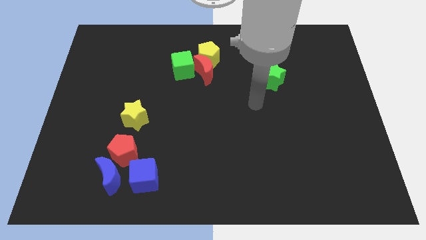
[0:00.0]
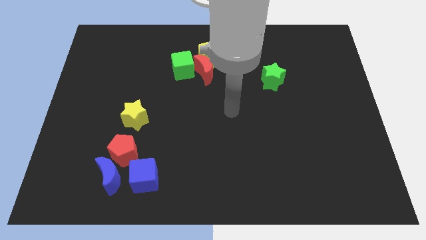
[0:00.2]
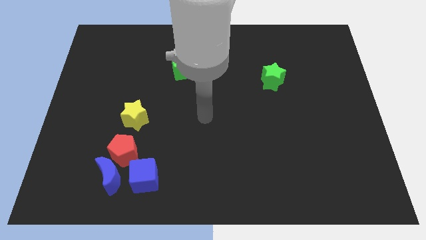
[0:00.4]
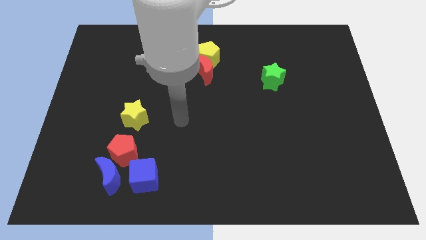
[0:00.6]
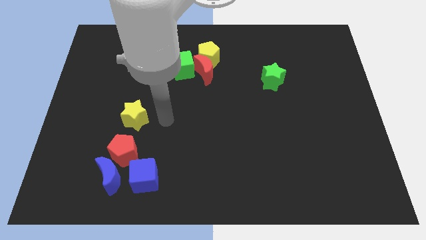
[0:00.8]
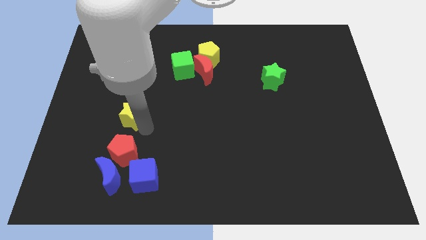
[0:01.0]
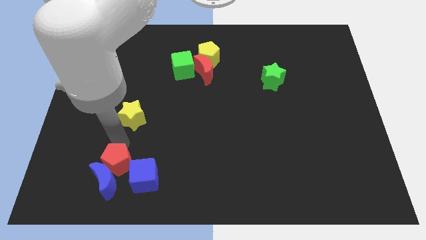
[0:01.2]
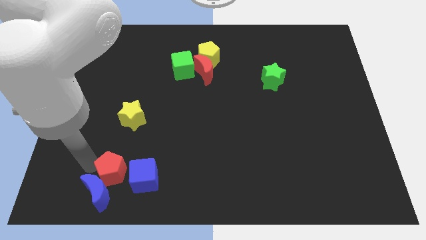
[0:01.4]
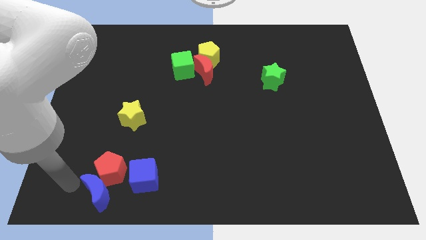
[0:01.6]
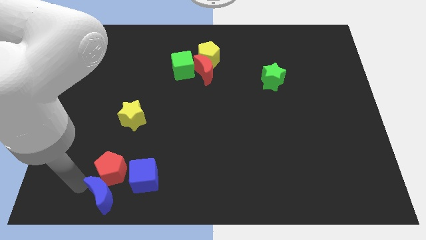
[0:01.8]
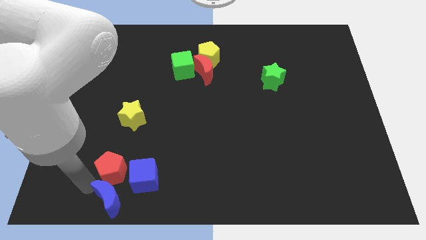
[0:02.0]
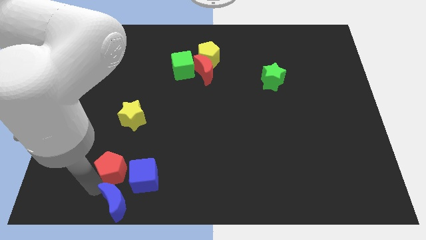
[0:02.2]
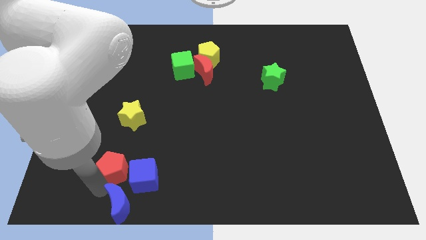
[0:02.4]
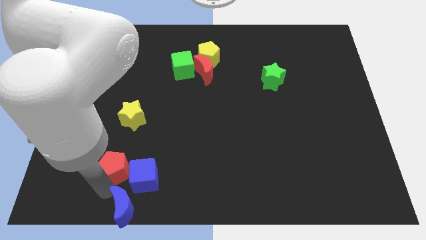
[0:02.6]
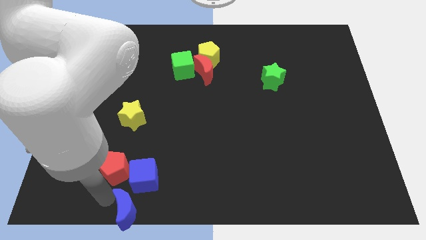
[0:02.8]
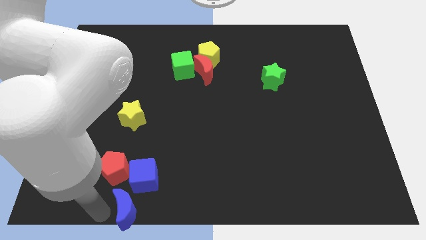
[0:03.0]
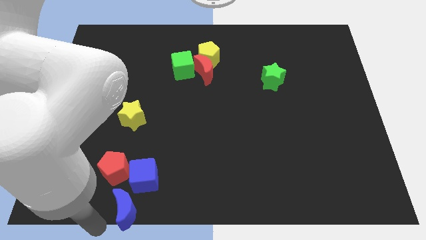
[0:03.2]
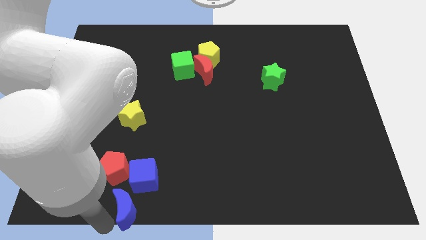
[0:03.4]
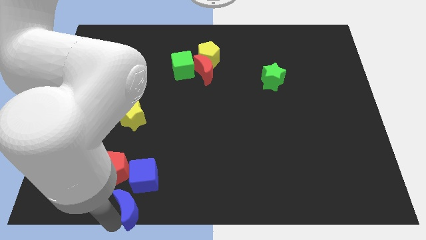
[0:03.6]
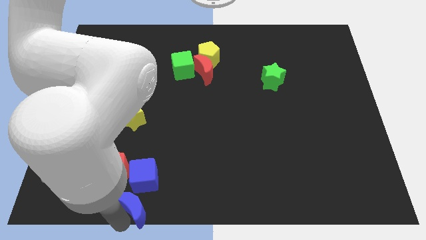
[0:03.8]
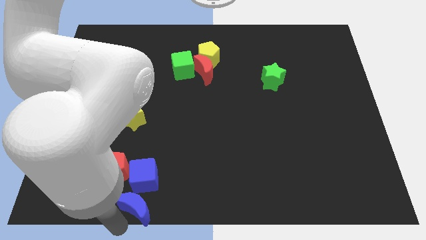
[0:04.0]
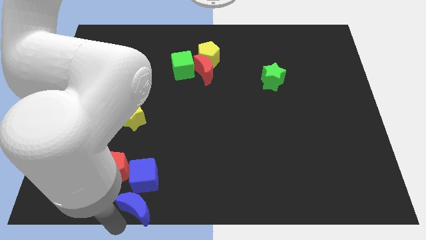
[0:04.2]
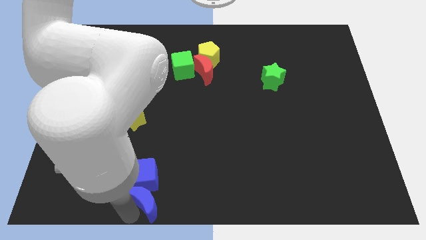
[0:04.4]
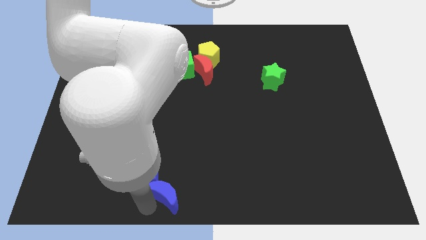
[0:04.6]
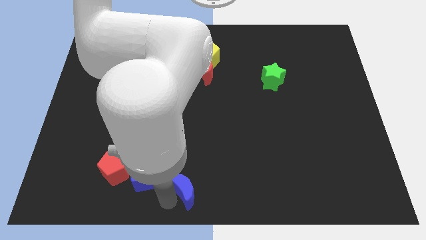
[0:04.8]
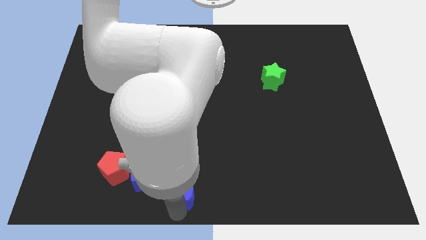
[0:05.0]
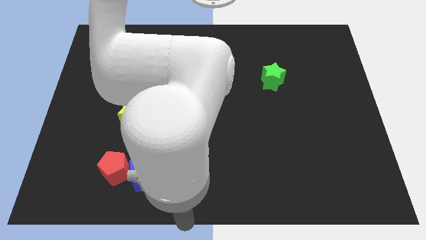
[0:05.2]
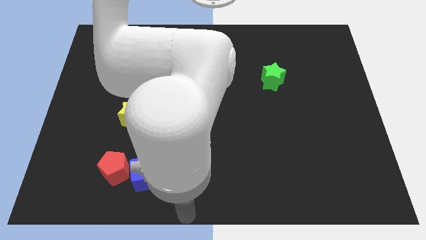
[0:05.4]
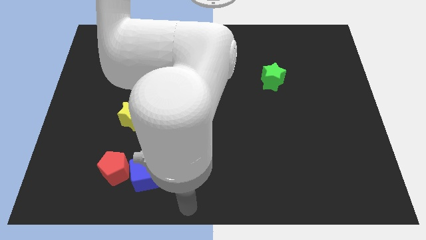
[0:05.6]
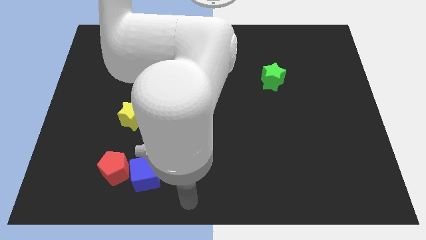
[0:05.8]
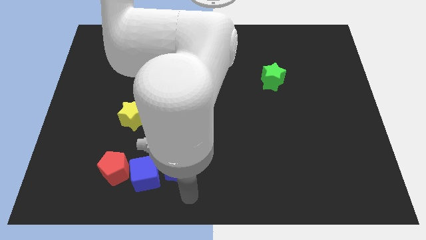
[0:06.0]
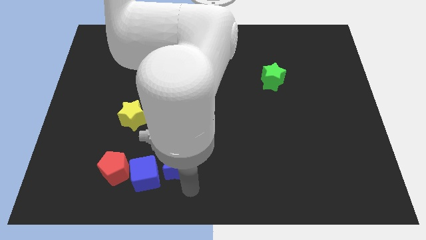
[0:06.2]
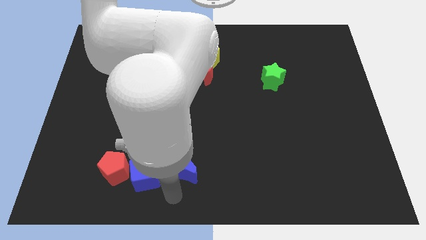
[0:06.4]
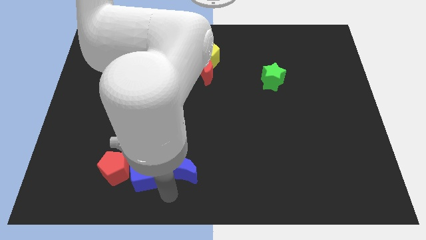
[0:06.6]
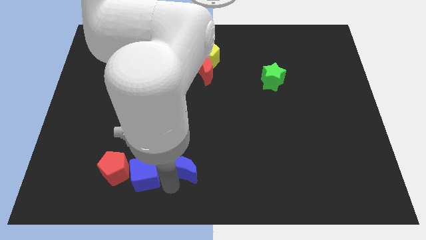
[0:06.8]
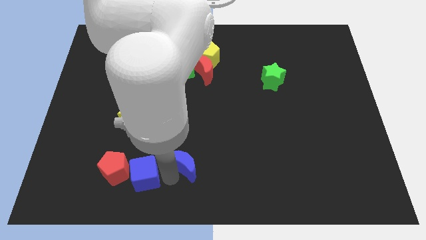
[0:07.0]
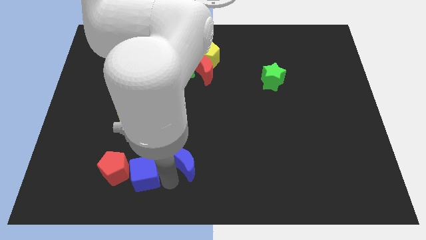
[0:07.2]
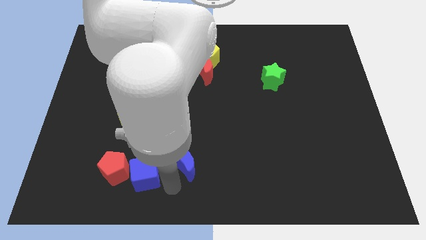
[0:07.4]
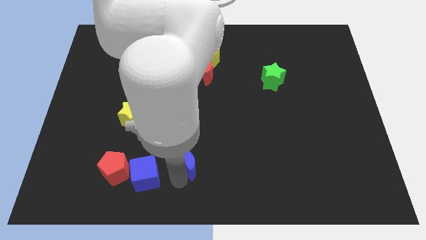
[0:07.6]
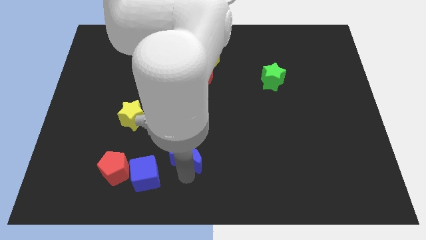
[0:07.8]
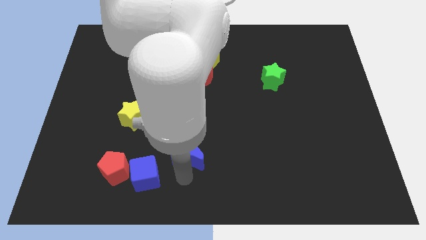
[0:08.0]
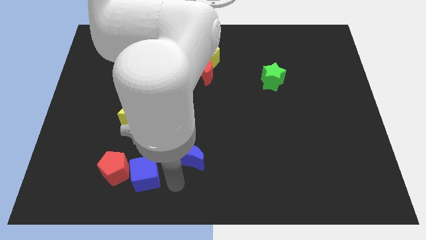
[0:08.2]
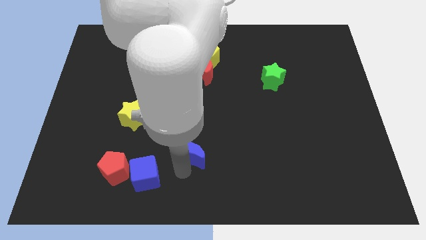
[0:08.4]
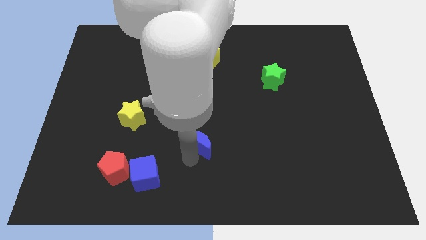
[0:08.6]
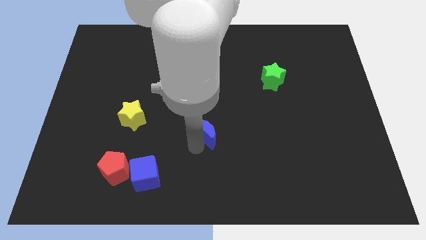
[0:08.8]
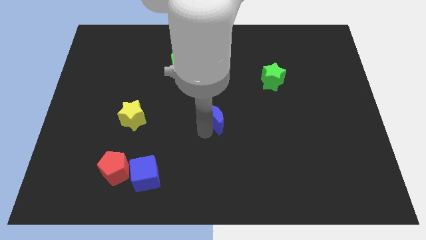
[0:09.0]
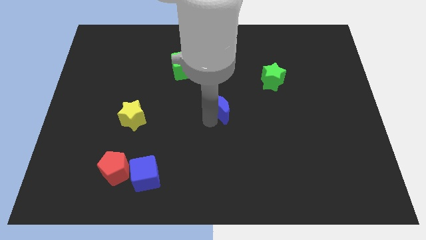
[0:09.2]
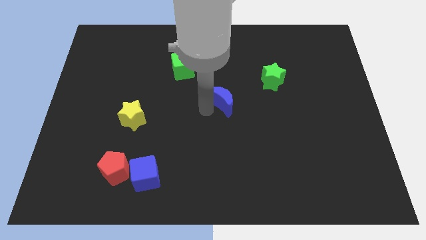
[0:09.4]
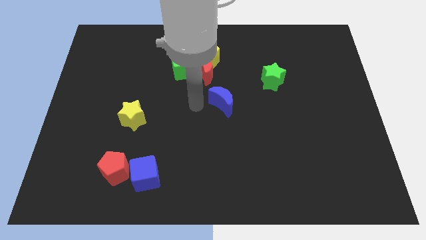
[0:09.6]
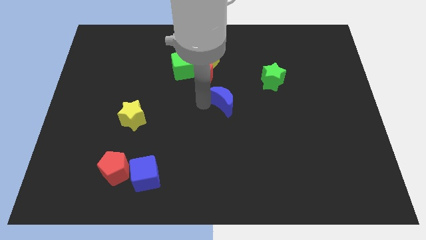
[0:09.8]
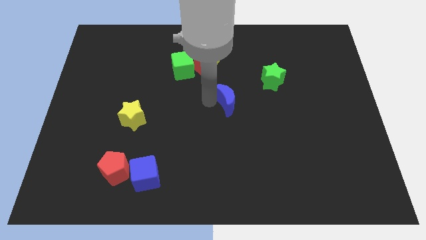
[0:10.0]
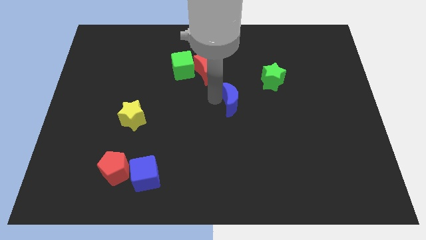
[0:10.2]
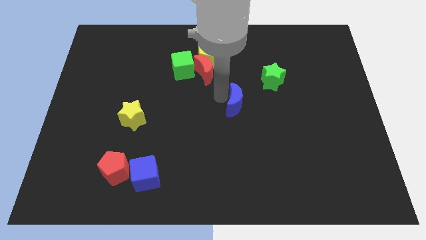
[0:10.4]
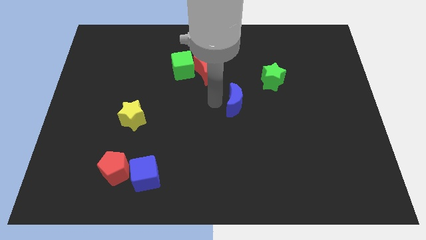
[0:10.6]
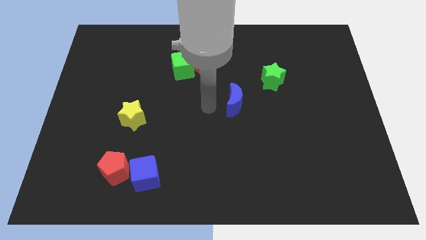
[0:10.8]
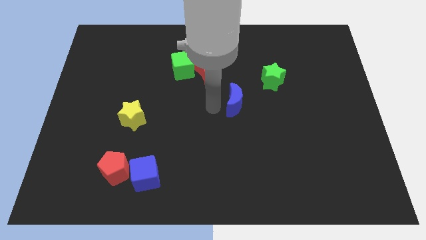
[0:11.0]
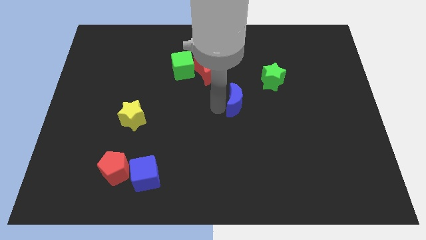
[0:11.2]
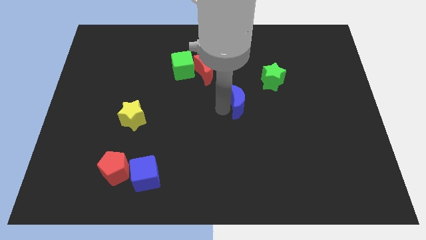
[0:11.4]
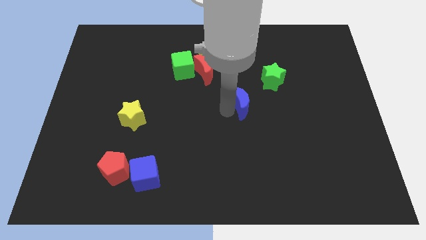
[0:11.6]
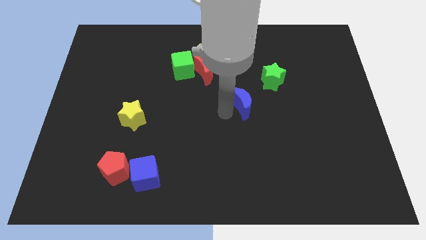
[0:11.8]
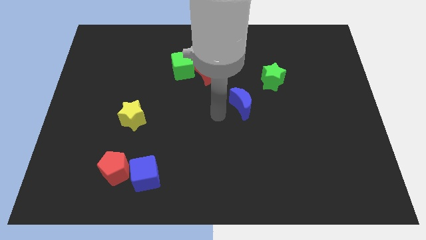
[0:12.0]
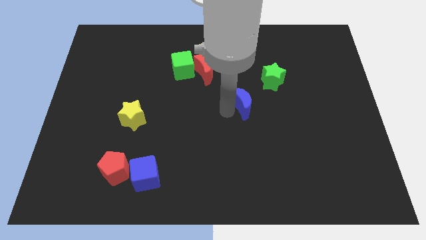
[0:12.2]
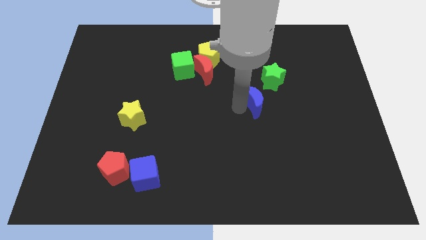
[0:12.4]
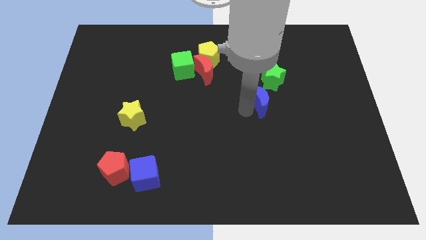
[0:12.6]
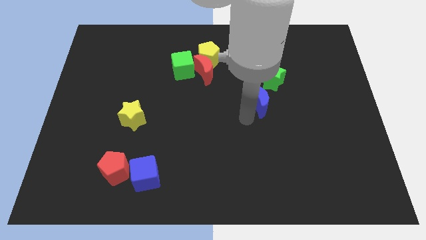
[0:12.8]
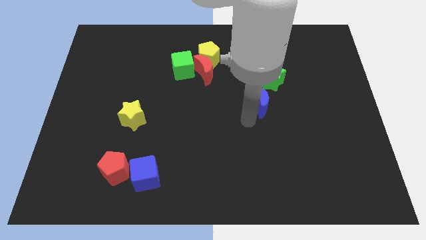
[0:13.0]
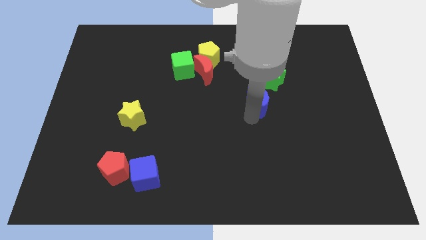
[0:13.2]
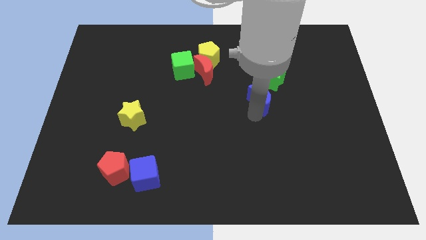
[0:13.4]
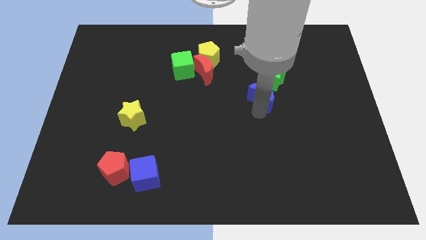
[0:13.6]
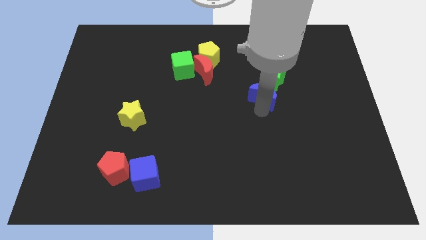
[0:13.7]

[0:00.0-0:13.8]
slide the blue moon to the green star
